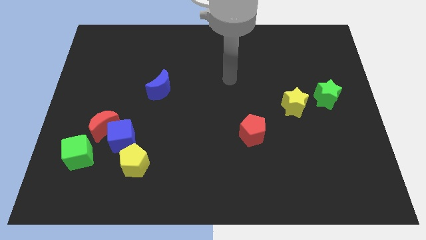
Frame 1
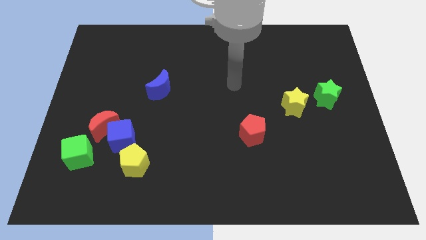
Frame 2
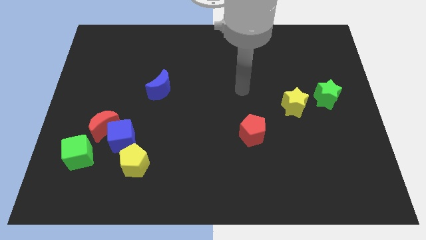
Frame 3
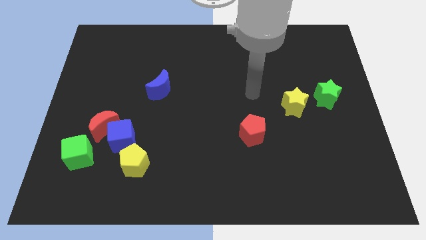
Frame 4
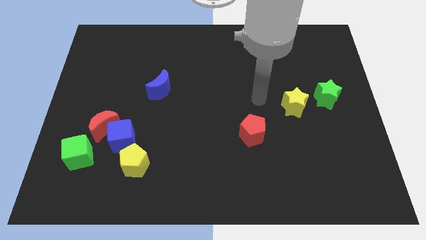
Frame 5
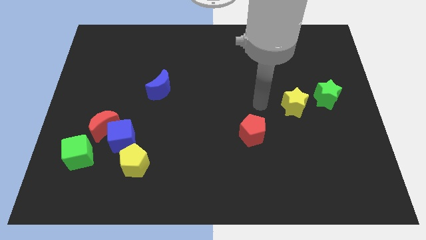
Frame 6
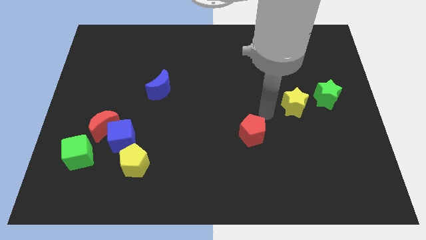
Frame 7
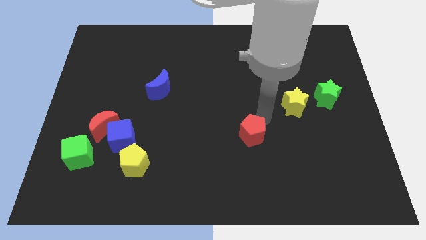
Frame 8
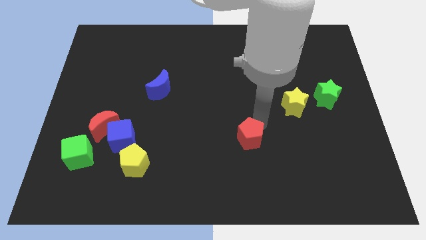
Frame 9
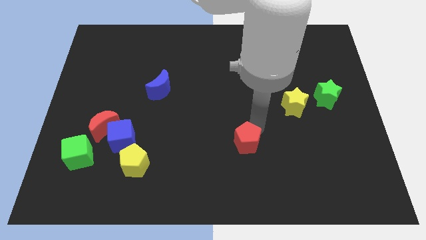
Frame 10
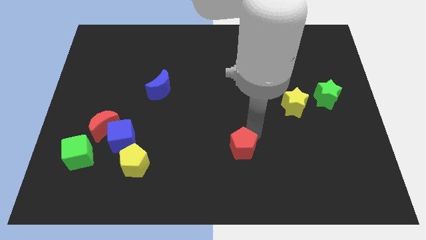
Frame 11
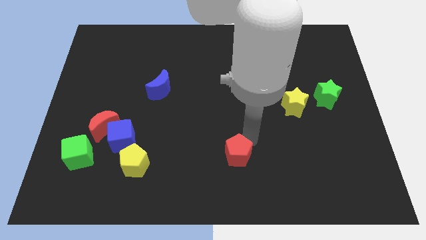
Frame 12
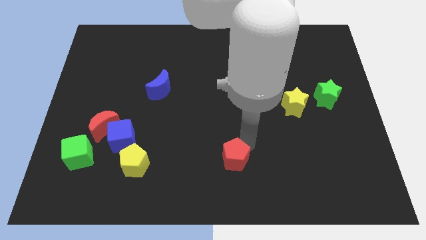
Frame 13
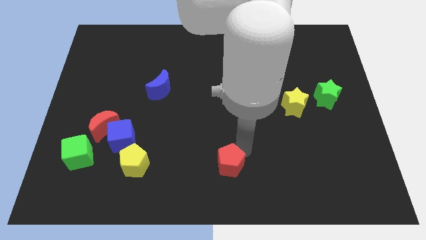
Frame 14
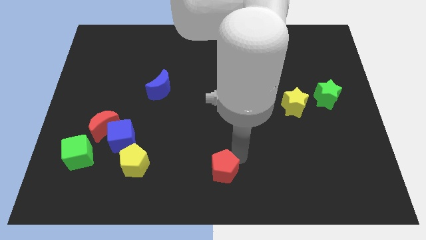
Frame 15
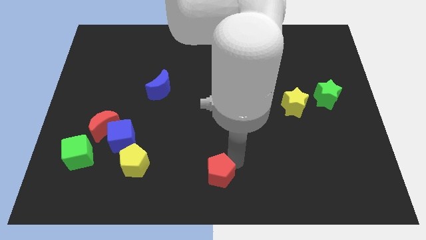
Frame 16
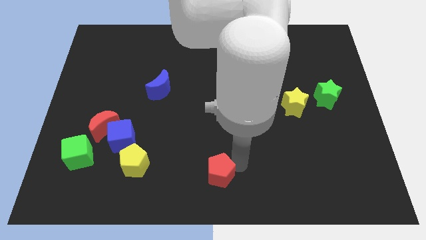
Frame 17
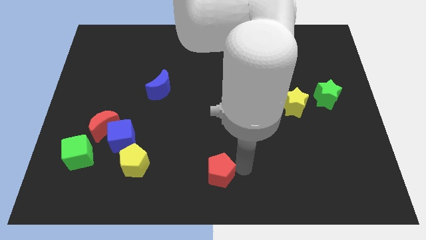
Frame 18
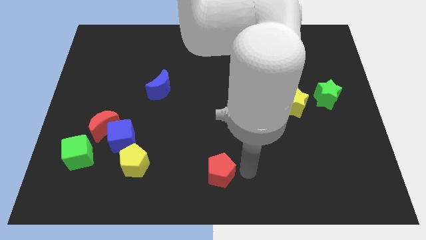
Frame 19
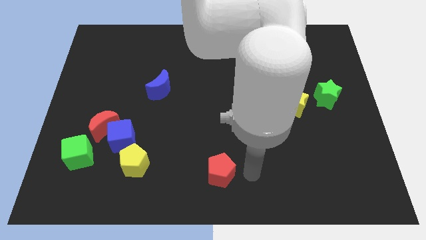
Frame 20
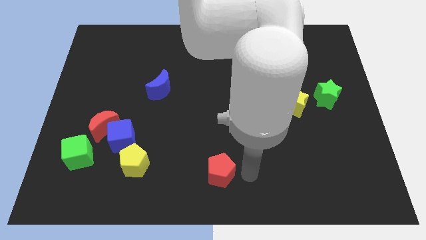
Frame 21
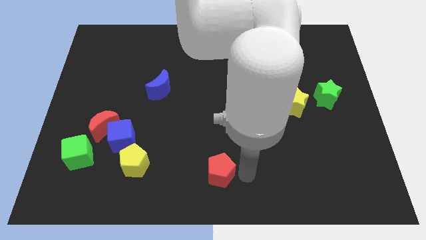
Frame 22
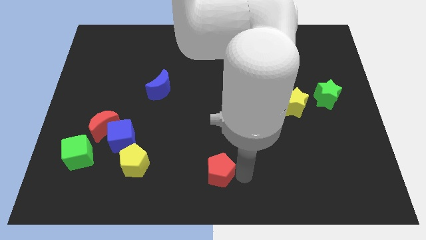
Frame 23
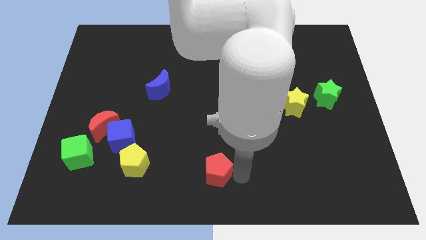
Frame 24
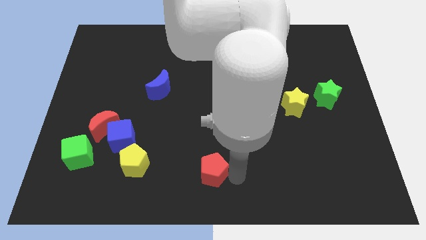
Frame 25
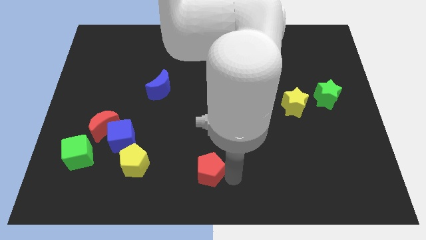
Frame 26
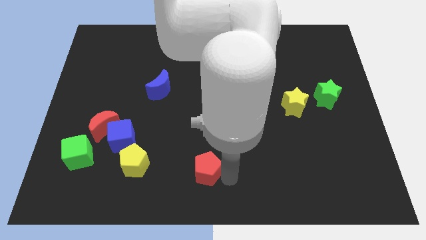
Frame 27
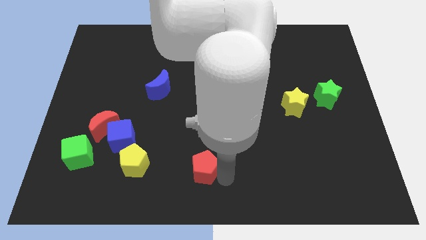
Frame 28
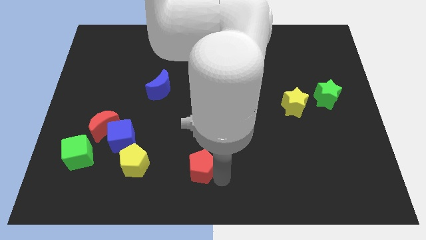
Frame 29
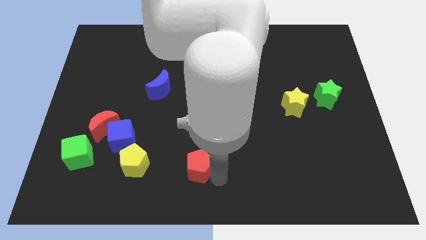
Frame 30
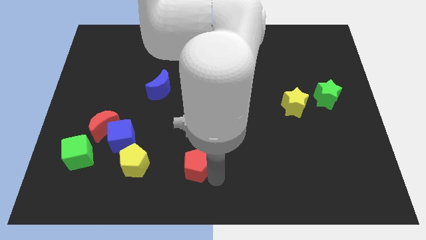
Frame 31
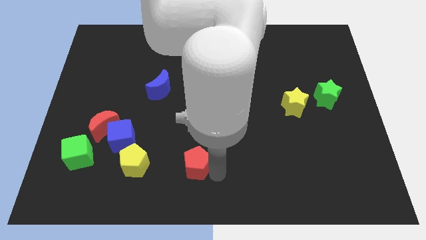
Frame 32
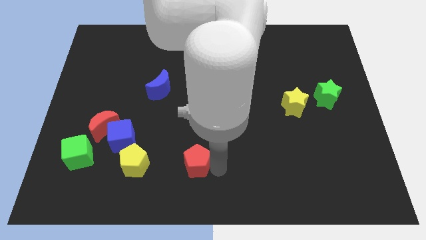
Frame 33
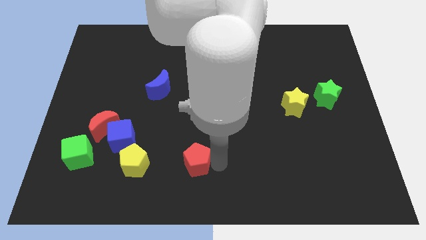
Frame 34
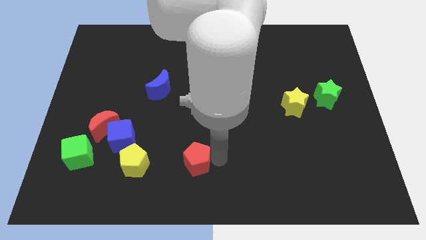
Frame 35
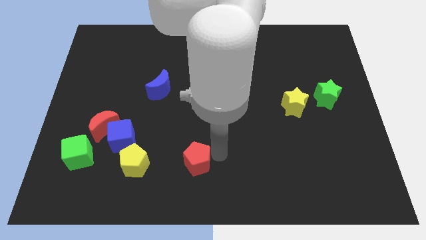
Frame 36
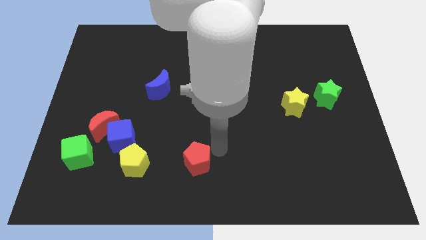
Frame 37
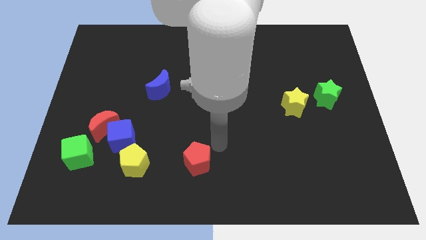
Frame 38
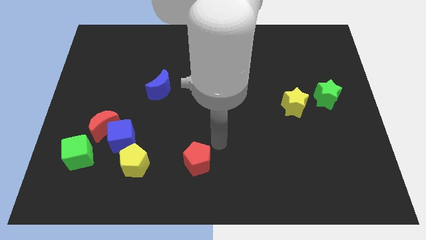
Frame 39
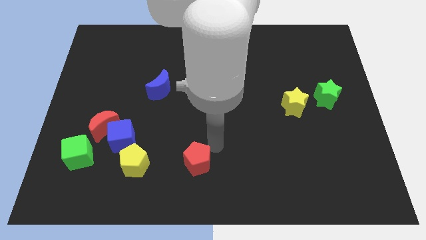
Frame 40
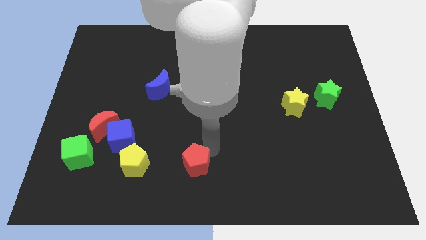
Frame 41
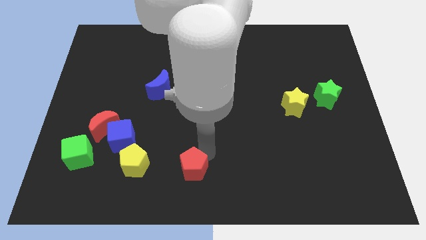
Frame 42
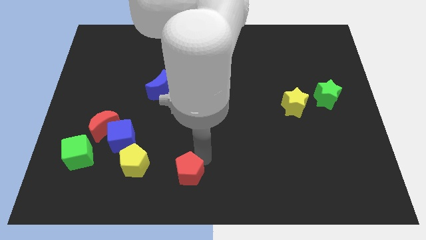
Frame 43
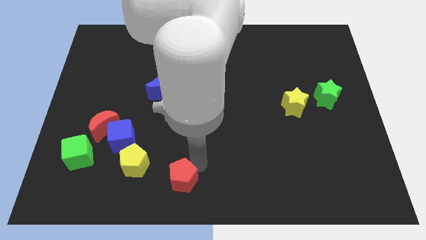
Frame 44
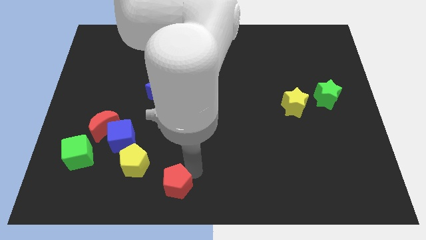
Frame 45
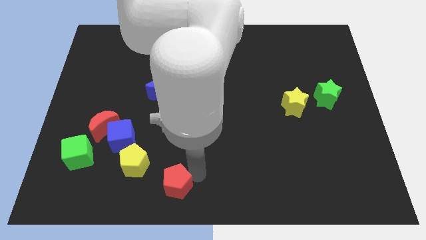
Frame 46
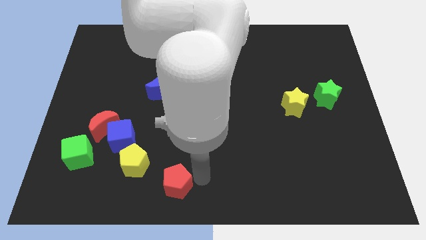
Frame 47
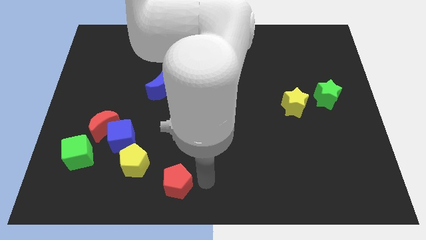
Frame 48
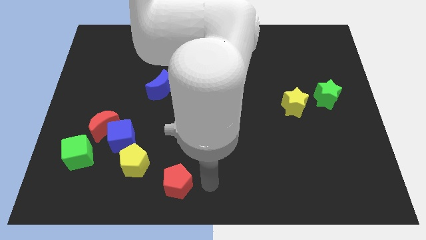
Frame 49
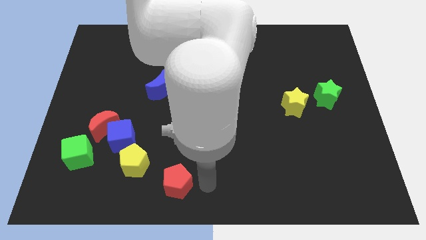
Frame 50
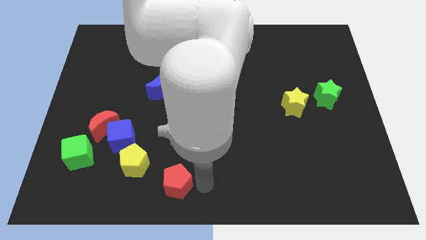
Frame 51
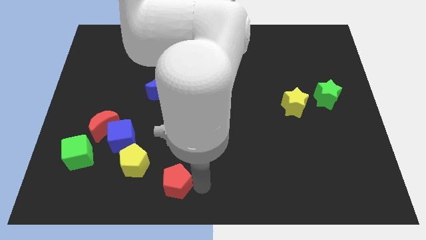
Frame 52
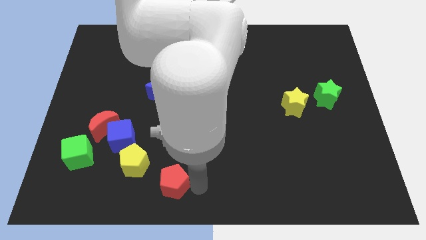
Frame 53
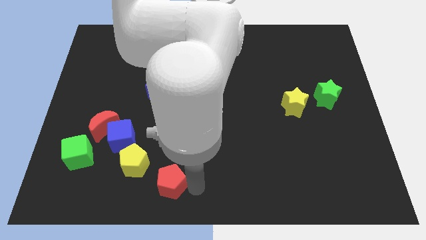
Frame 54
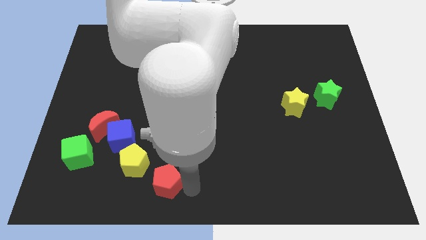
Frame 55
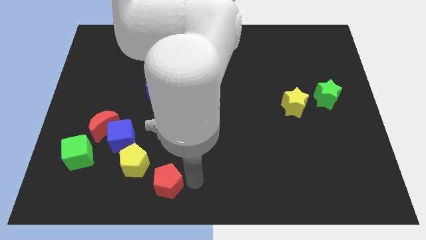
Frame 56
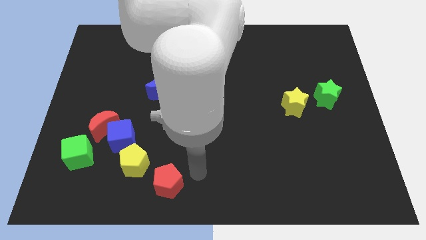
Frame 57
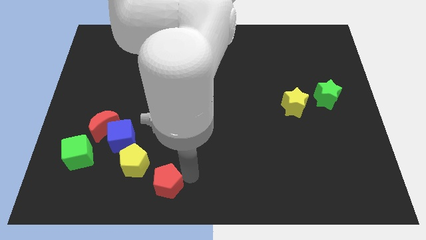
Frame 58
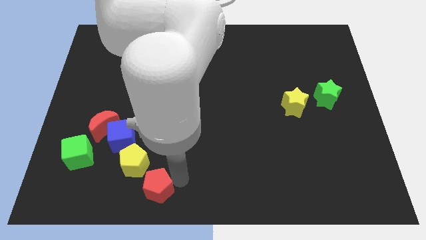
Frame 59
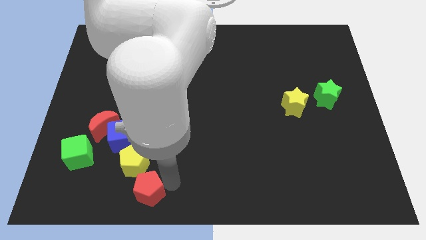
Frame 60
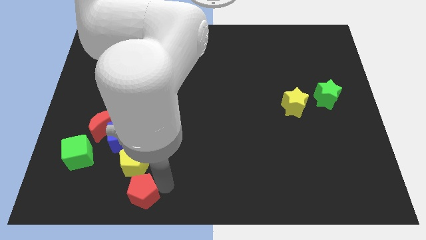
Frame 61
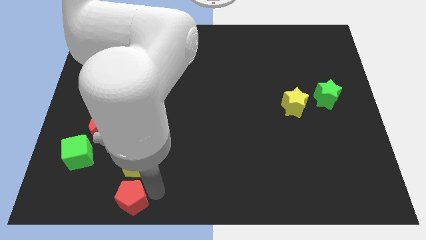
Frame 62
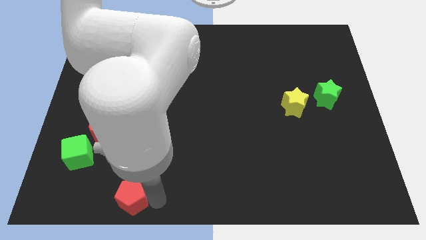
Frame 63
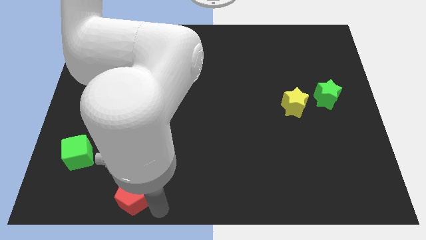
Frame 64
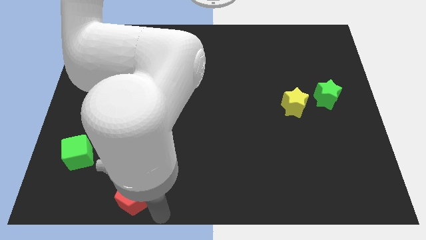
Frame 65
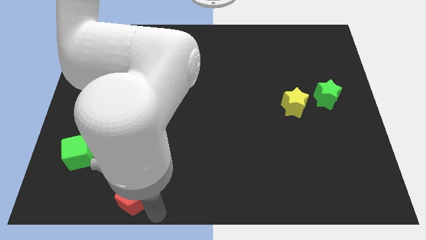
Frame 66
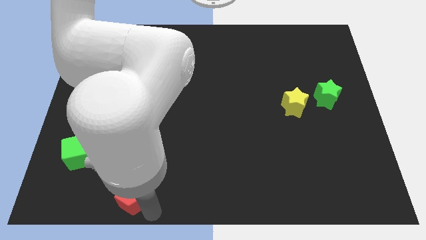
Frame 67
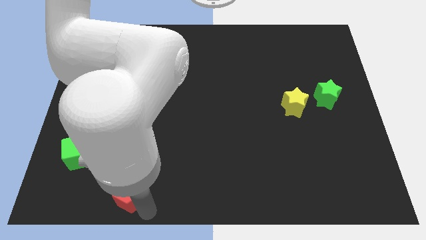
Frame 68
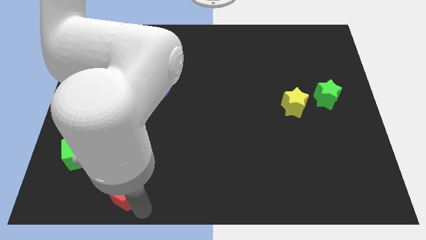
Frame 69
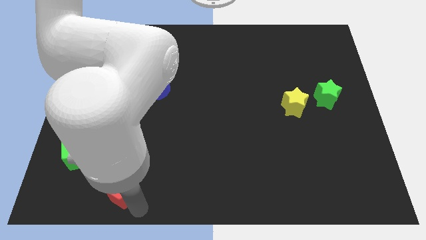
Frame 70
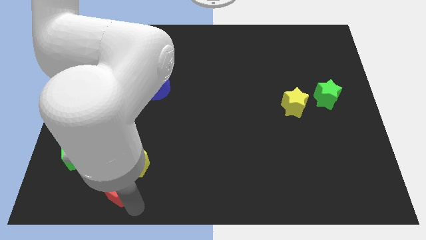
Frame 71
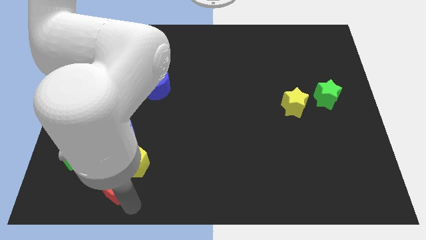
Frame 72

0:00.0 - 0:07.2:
push the red pentagon to the bottom right of the green cube
